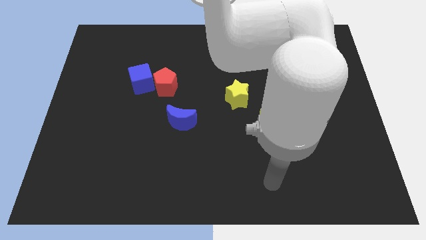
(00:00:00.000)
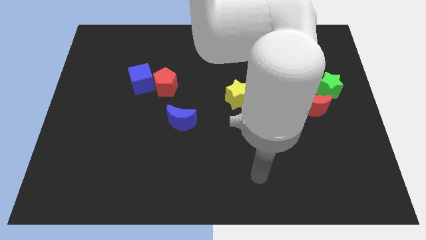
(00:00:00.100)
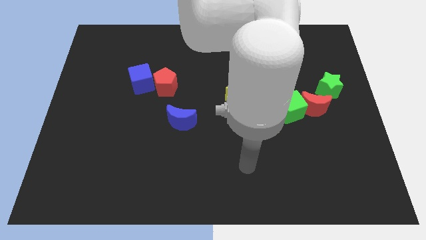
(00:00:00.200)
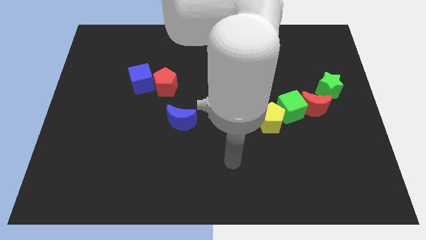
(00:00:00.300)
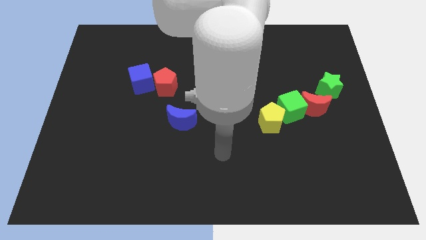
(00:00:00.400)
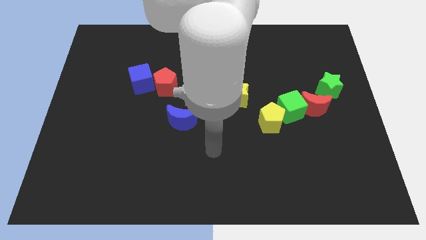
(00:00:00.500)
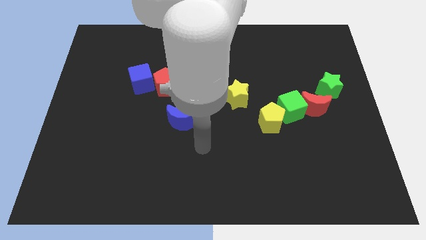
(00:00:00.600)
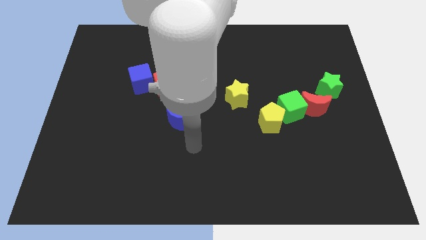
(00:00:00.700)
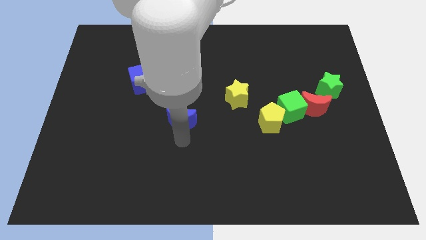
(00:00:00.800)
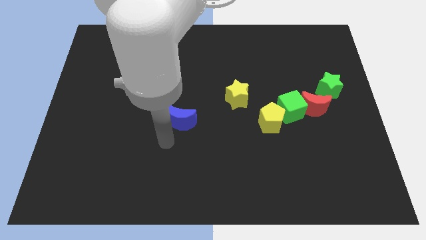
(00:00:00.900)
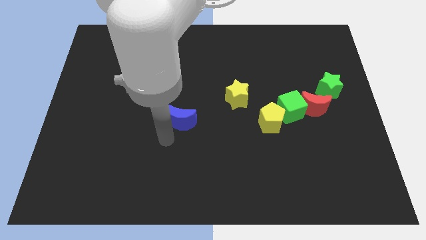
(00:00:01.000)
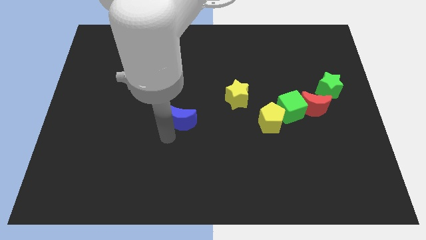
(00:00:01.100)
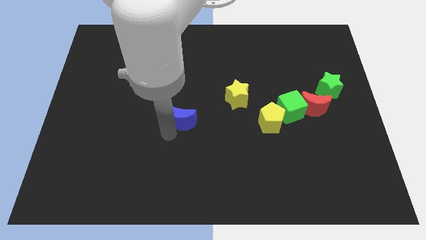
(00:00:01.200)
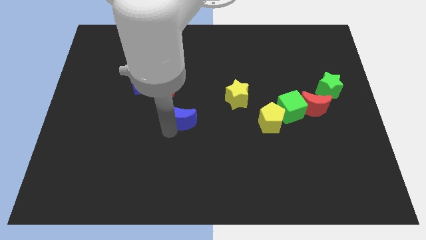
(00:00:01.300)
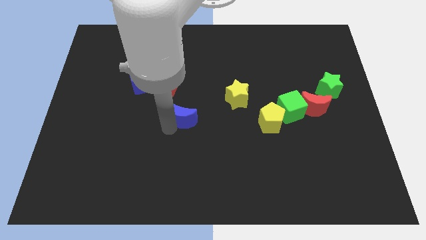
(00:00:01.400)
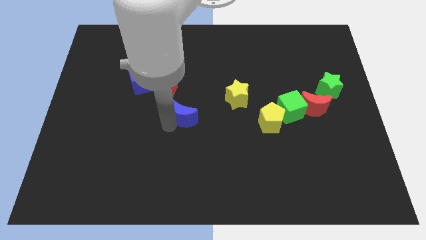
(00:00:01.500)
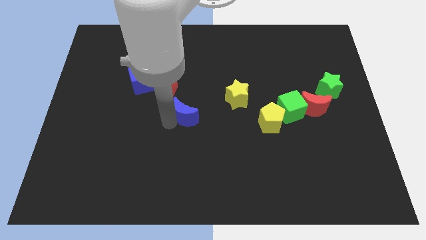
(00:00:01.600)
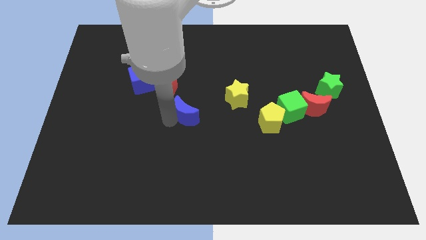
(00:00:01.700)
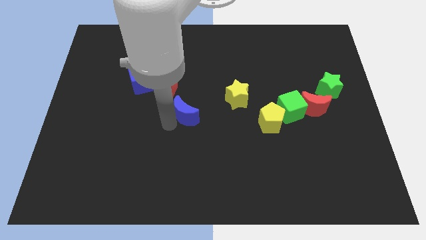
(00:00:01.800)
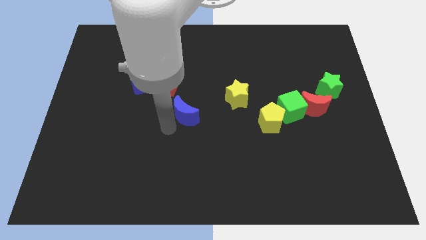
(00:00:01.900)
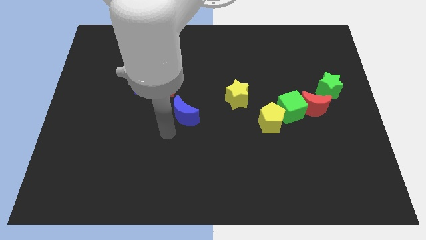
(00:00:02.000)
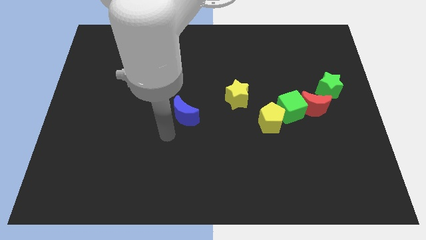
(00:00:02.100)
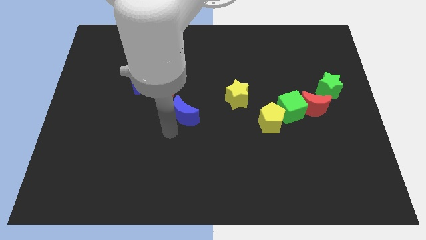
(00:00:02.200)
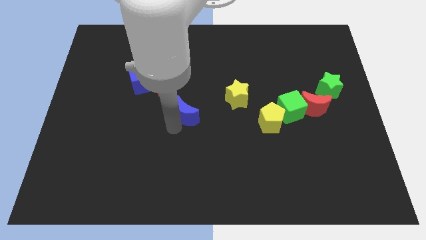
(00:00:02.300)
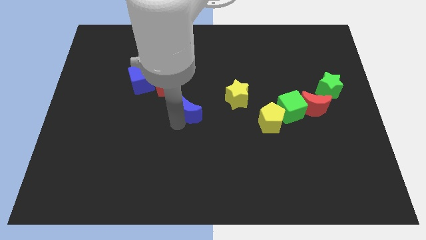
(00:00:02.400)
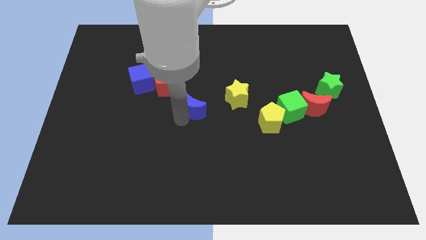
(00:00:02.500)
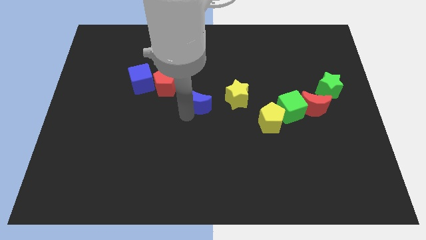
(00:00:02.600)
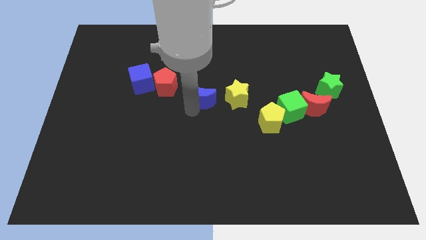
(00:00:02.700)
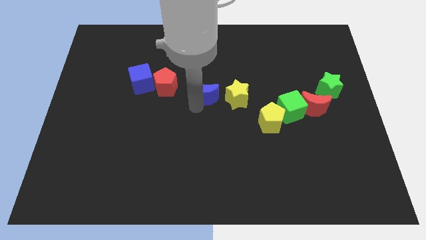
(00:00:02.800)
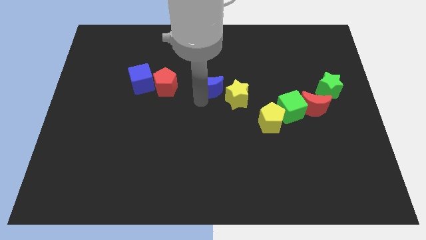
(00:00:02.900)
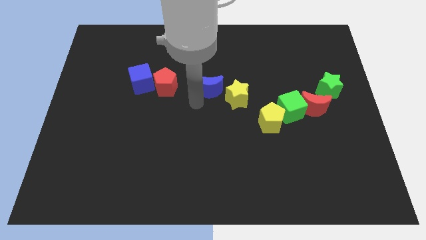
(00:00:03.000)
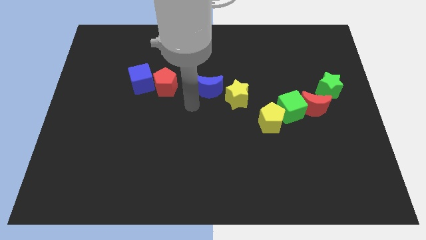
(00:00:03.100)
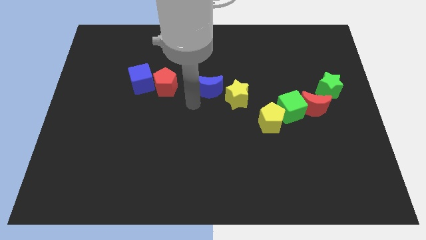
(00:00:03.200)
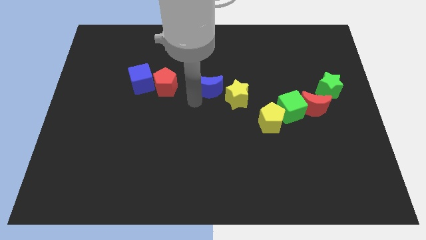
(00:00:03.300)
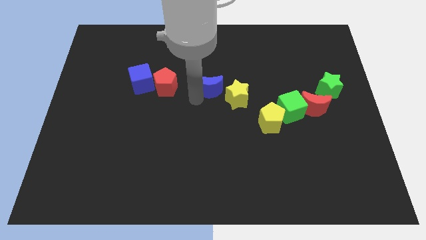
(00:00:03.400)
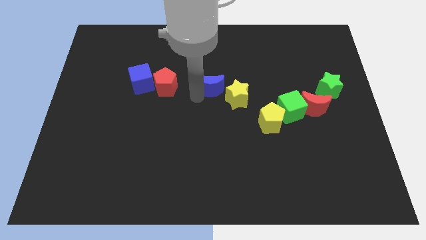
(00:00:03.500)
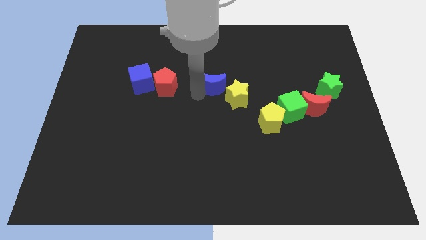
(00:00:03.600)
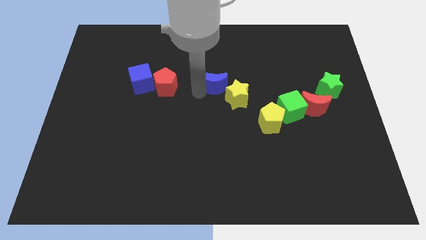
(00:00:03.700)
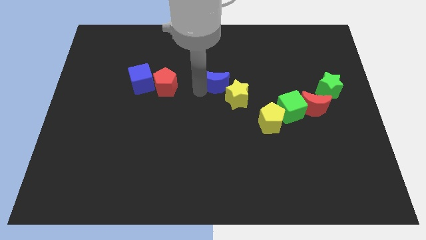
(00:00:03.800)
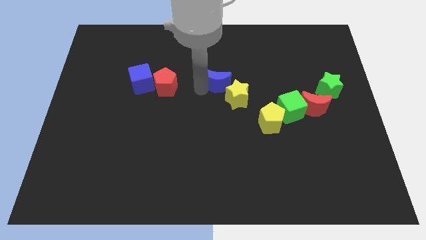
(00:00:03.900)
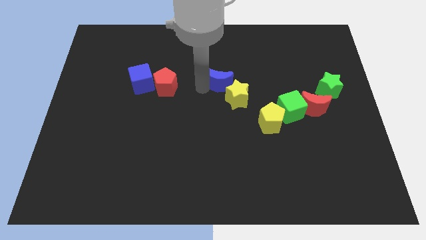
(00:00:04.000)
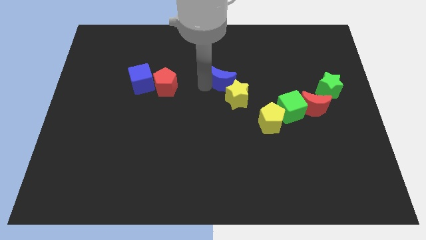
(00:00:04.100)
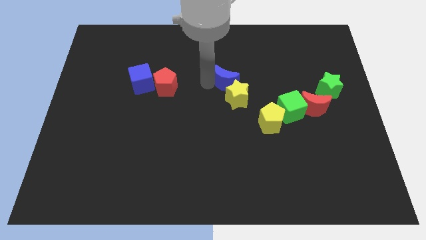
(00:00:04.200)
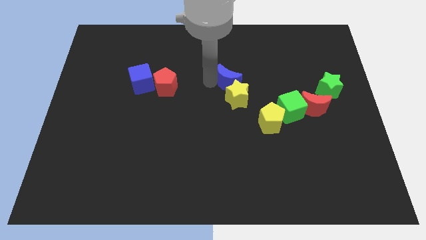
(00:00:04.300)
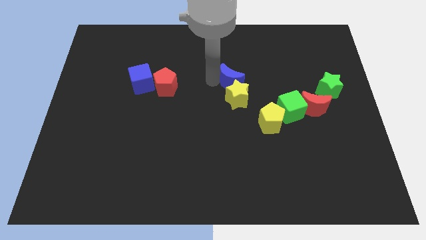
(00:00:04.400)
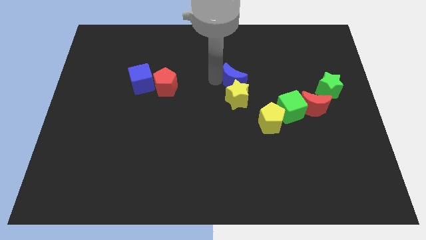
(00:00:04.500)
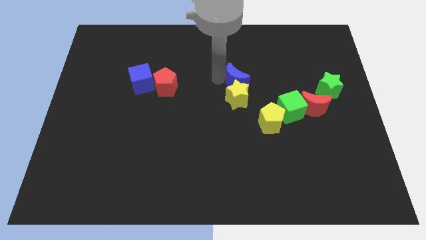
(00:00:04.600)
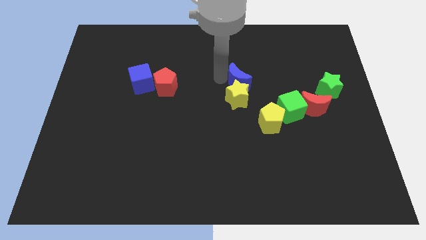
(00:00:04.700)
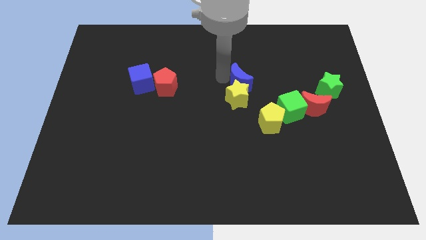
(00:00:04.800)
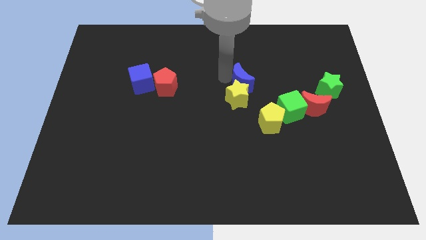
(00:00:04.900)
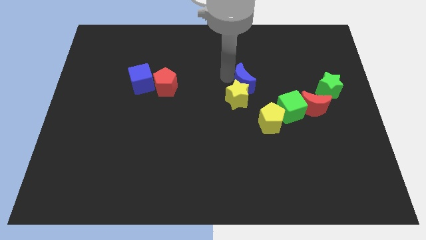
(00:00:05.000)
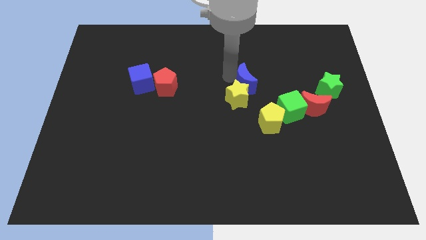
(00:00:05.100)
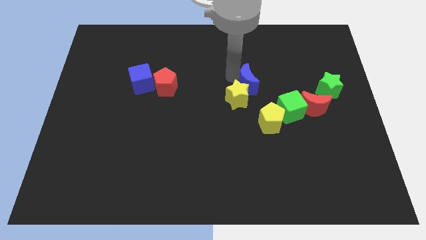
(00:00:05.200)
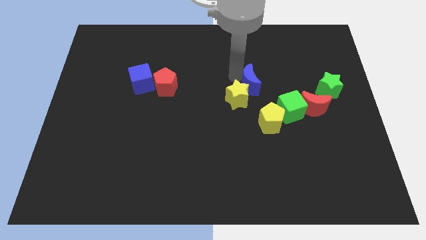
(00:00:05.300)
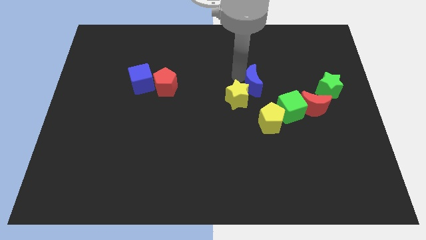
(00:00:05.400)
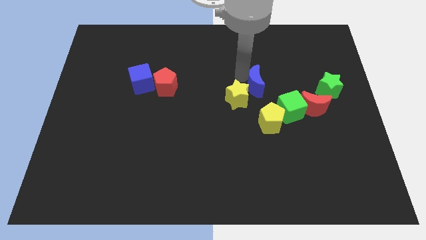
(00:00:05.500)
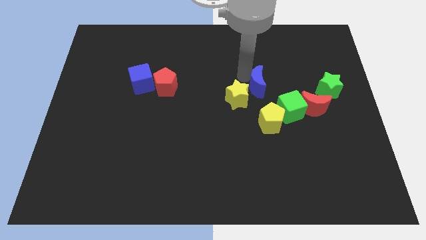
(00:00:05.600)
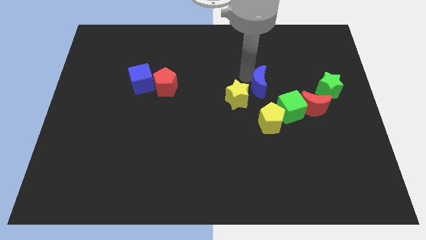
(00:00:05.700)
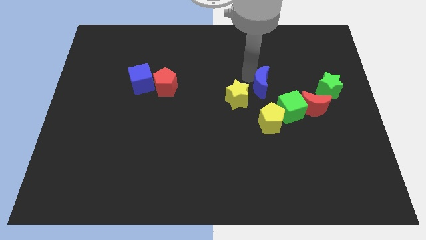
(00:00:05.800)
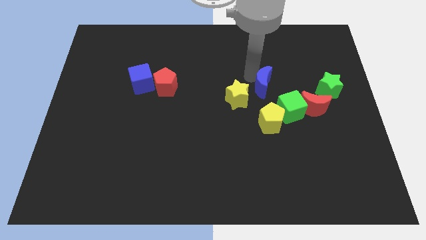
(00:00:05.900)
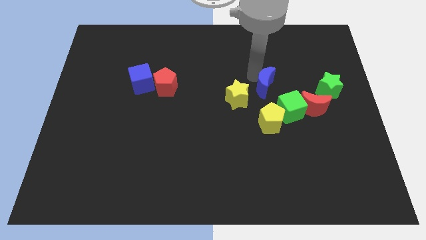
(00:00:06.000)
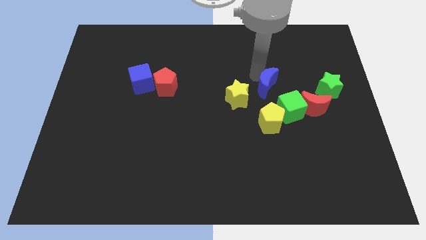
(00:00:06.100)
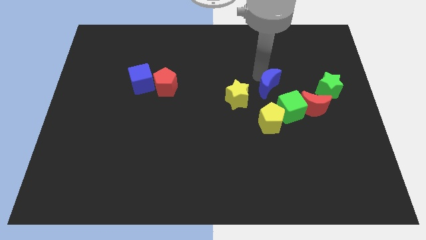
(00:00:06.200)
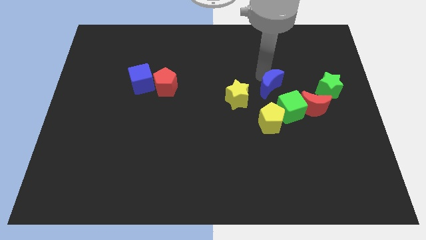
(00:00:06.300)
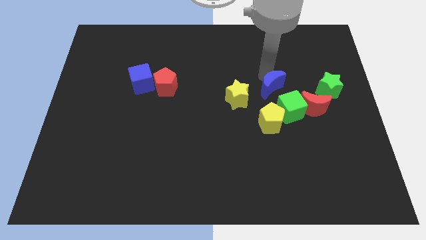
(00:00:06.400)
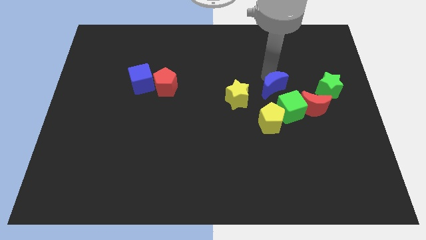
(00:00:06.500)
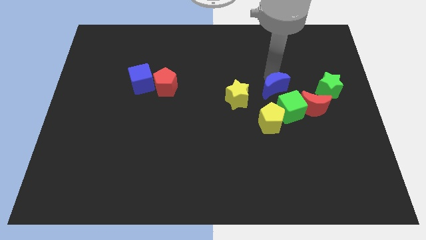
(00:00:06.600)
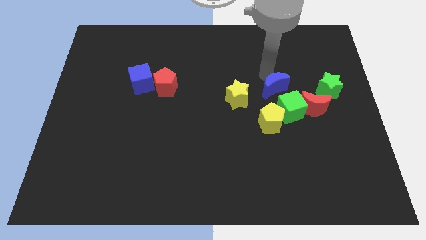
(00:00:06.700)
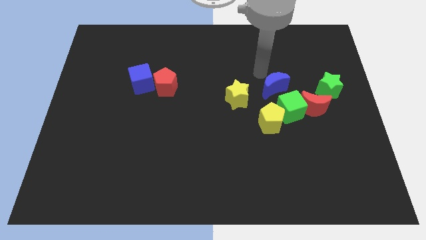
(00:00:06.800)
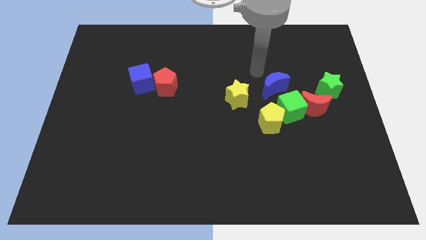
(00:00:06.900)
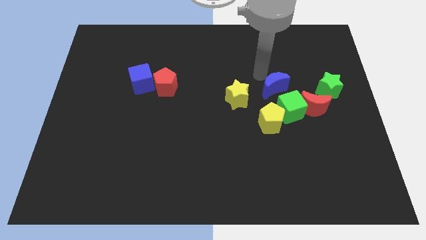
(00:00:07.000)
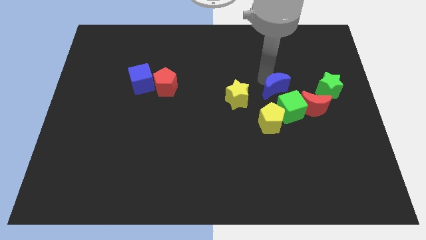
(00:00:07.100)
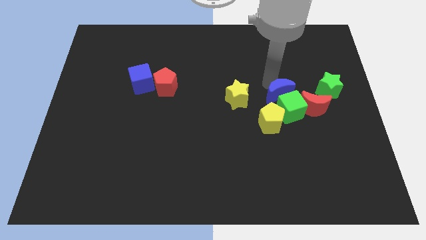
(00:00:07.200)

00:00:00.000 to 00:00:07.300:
put the blue moon to the top right side of the yellow pentagon
